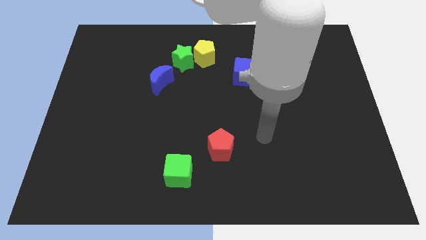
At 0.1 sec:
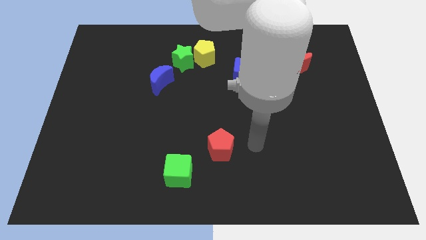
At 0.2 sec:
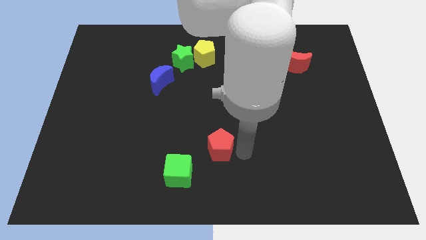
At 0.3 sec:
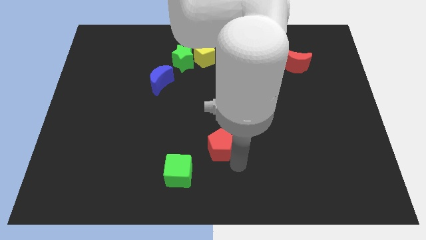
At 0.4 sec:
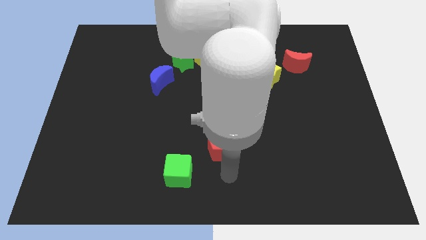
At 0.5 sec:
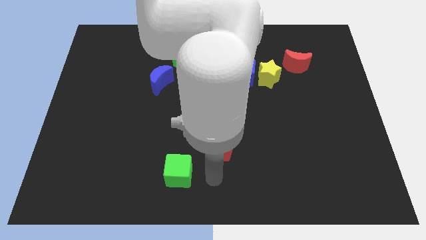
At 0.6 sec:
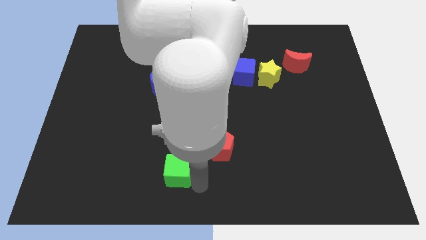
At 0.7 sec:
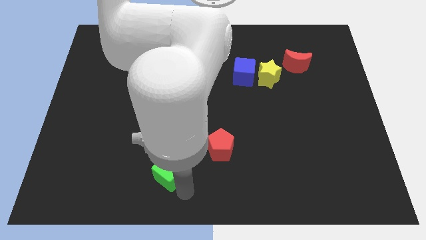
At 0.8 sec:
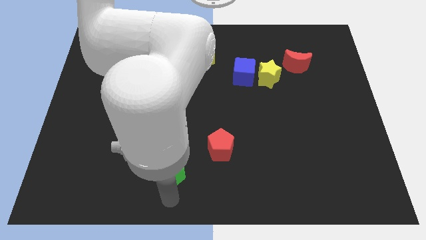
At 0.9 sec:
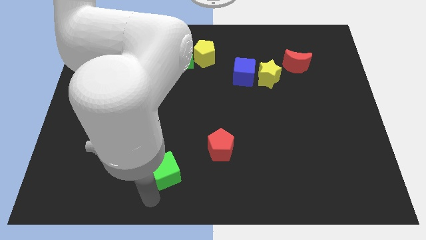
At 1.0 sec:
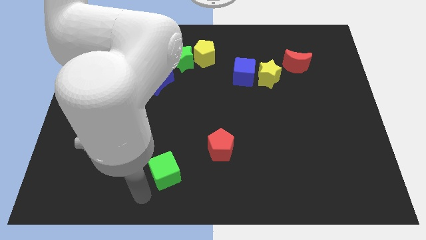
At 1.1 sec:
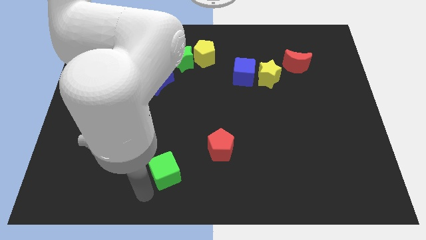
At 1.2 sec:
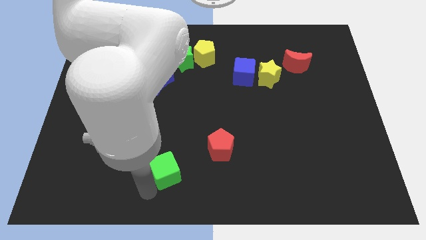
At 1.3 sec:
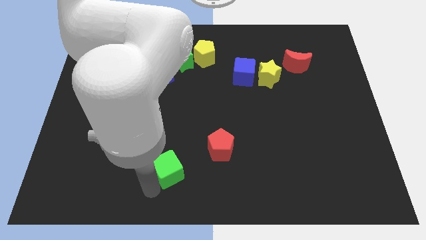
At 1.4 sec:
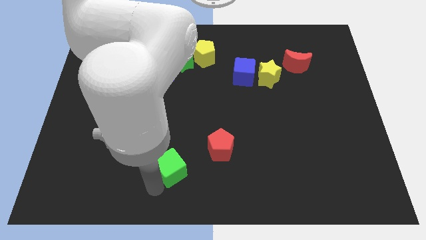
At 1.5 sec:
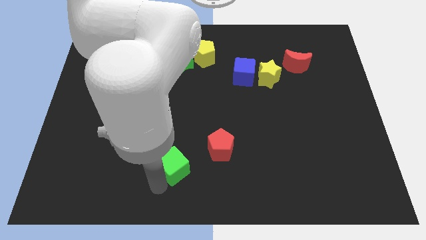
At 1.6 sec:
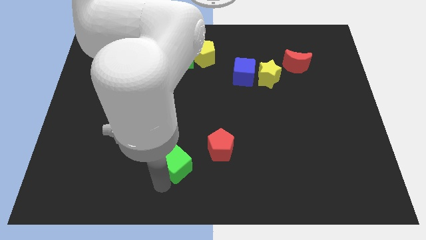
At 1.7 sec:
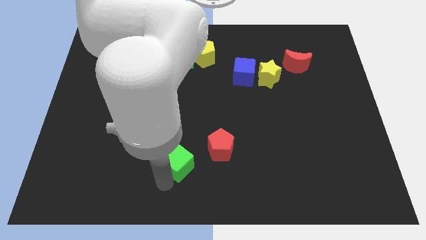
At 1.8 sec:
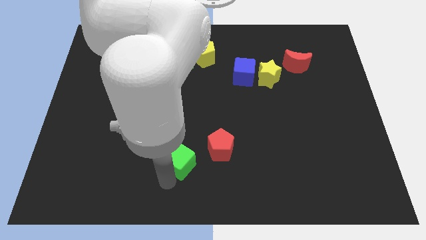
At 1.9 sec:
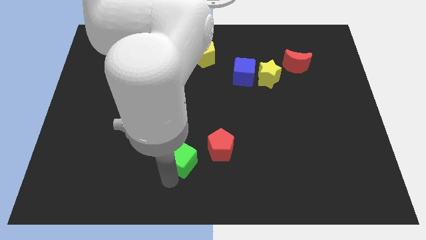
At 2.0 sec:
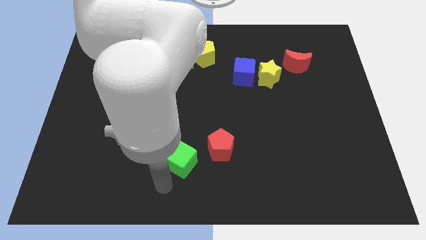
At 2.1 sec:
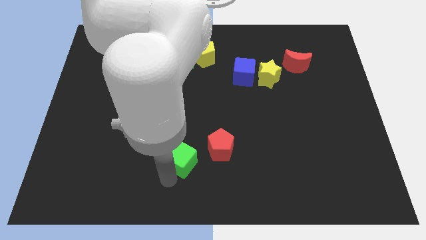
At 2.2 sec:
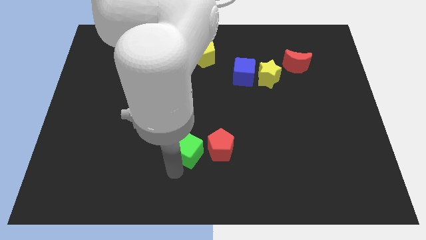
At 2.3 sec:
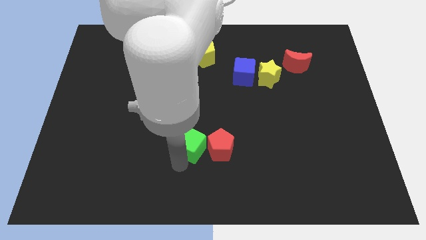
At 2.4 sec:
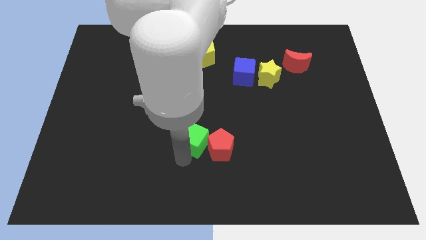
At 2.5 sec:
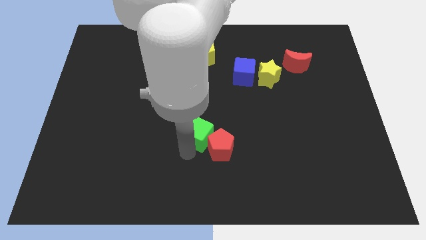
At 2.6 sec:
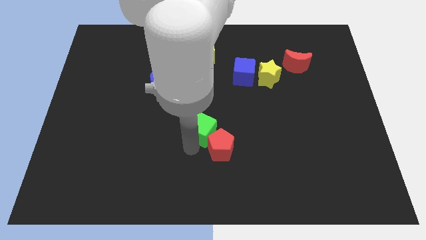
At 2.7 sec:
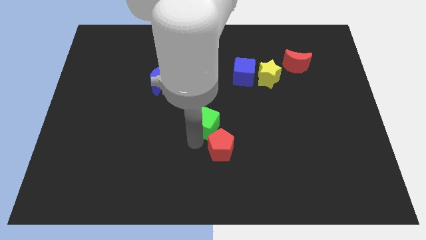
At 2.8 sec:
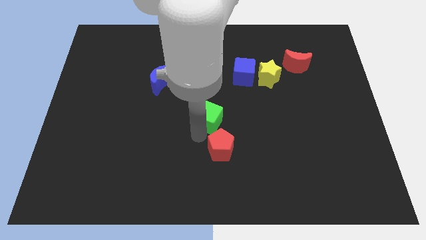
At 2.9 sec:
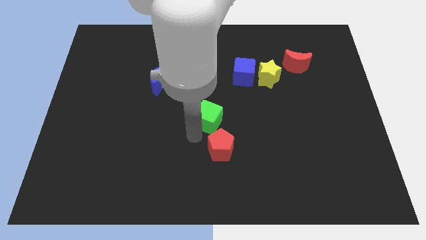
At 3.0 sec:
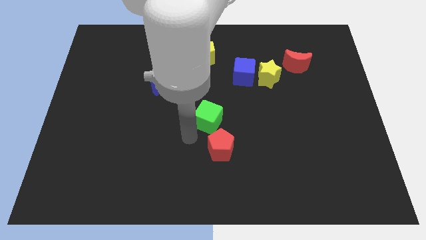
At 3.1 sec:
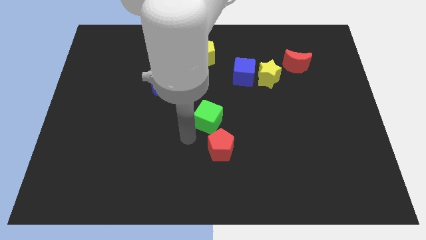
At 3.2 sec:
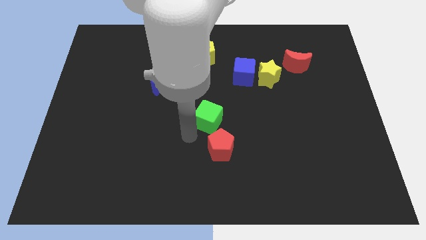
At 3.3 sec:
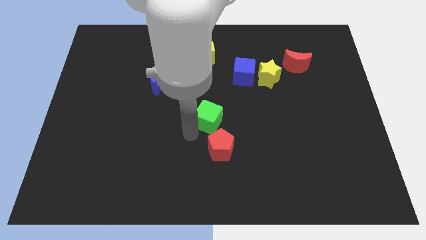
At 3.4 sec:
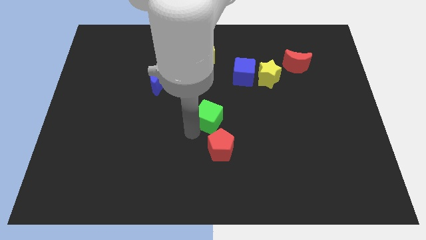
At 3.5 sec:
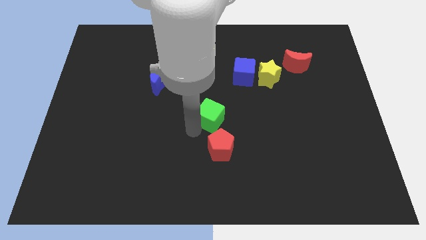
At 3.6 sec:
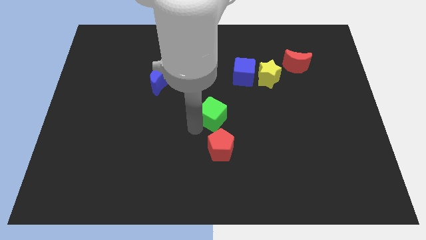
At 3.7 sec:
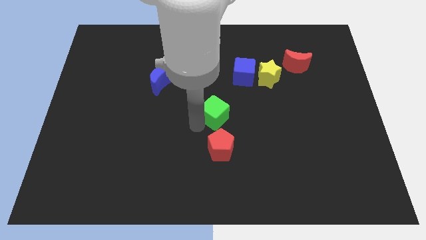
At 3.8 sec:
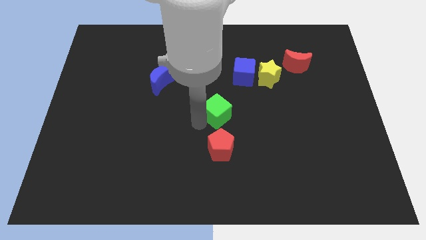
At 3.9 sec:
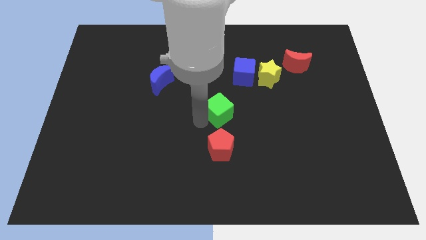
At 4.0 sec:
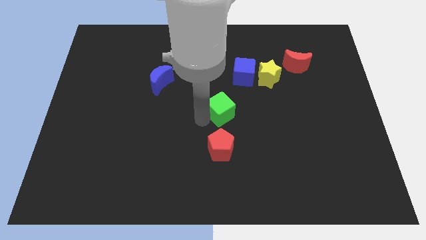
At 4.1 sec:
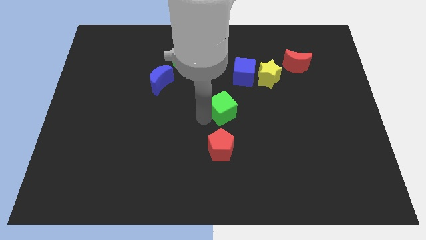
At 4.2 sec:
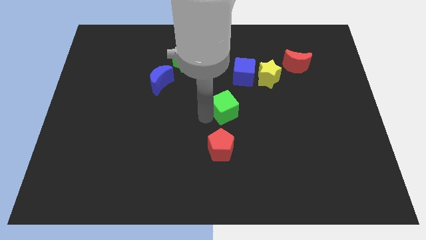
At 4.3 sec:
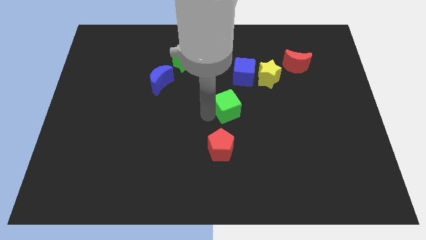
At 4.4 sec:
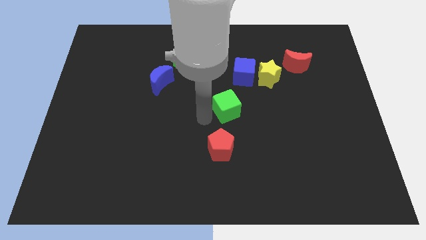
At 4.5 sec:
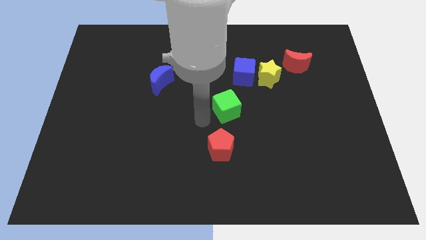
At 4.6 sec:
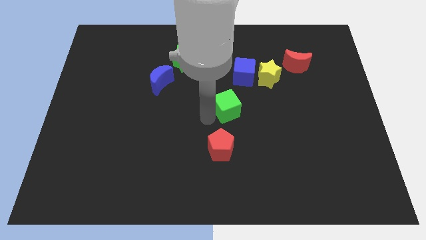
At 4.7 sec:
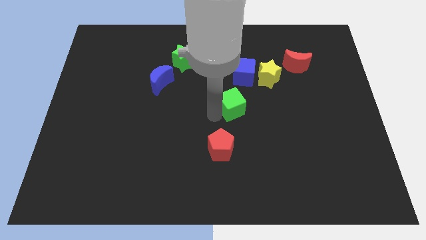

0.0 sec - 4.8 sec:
push the green cube up and to the right diagonally

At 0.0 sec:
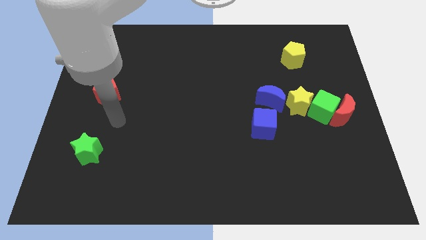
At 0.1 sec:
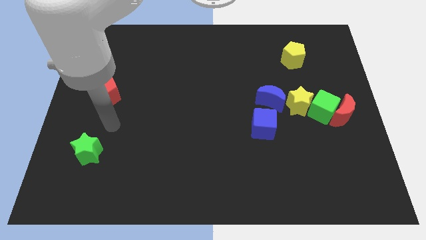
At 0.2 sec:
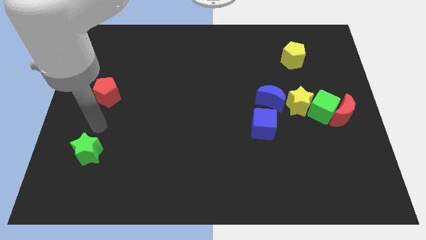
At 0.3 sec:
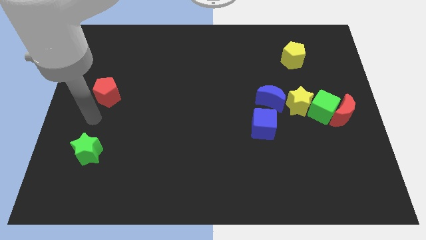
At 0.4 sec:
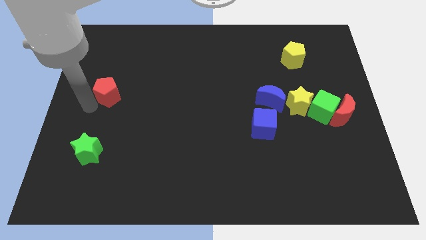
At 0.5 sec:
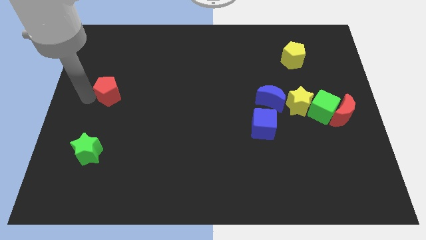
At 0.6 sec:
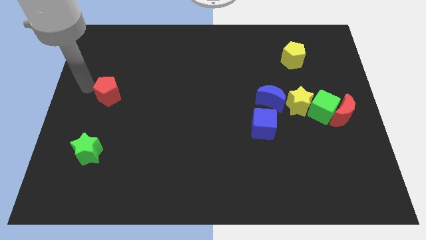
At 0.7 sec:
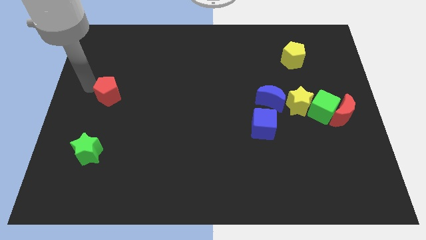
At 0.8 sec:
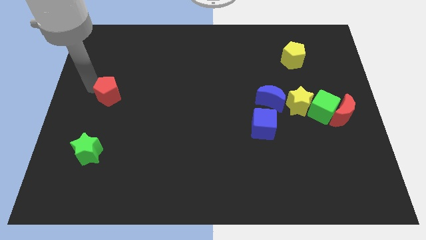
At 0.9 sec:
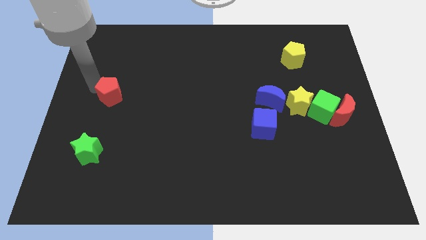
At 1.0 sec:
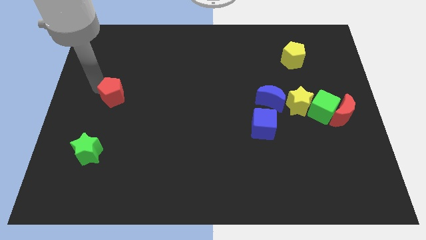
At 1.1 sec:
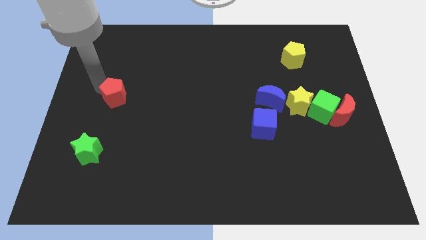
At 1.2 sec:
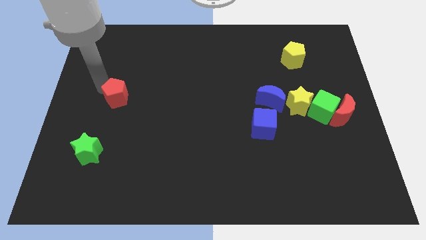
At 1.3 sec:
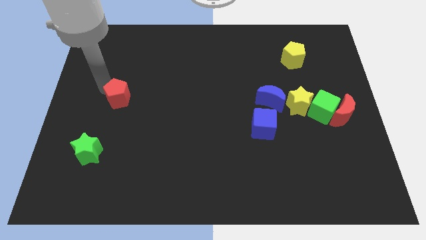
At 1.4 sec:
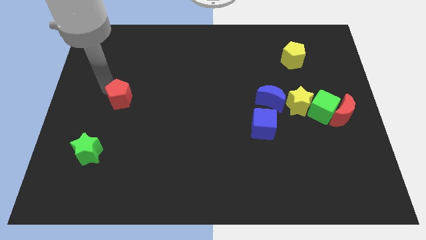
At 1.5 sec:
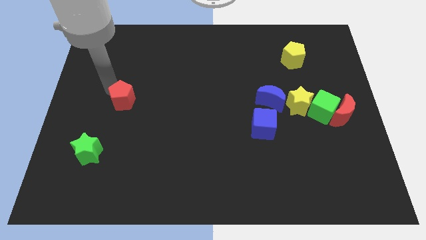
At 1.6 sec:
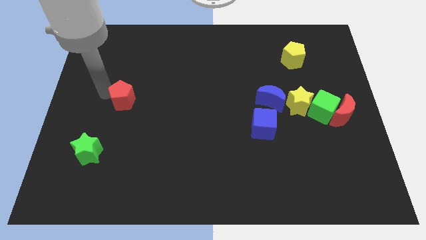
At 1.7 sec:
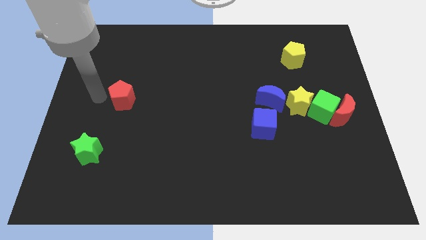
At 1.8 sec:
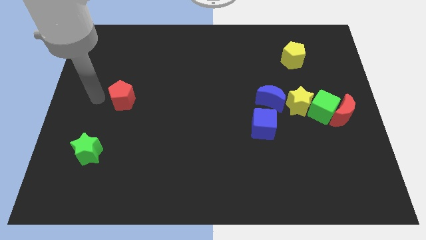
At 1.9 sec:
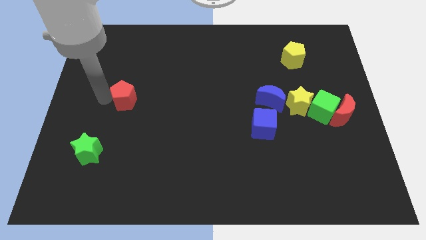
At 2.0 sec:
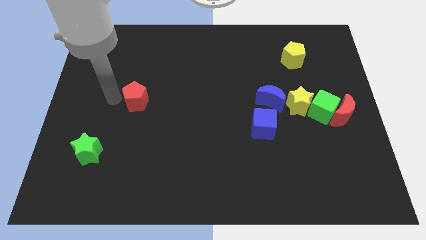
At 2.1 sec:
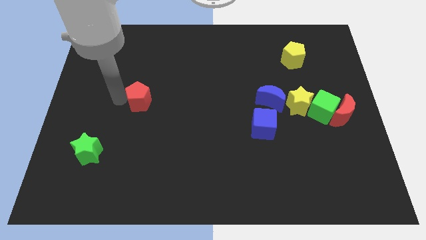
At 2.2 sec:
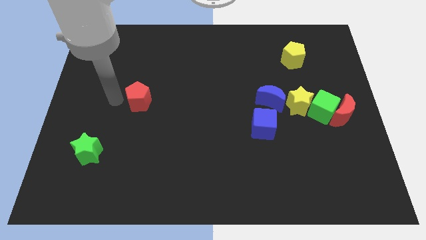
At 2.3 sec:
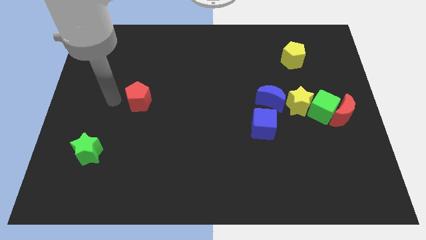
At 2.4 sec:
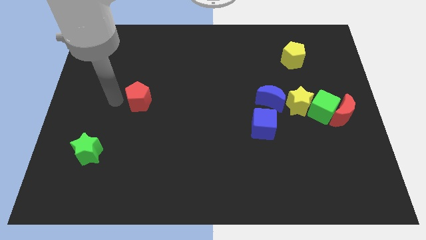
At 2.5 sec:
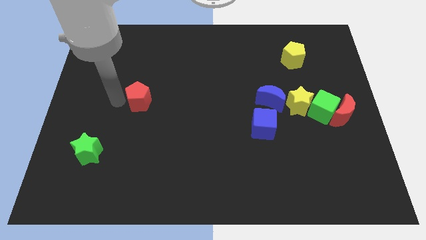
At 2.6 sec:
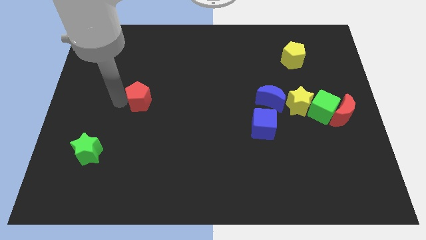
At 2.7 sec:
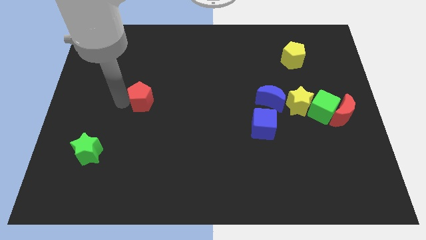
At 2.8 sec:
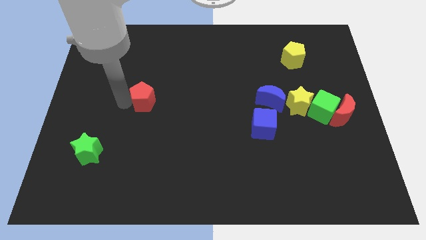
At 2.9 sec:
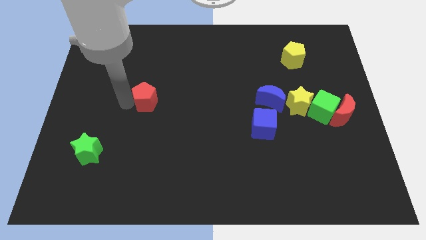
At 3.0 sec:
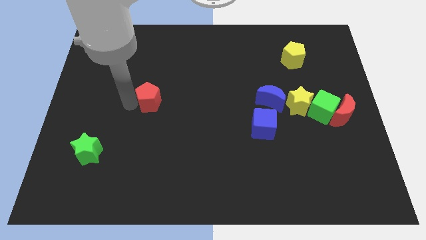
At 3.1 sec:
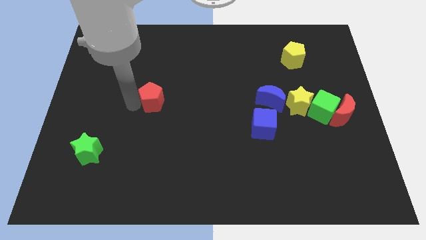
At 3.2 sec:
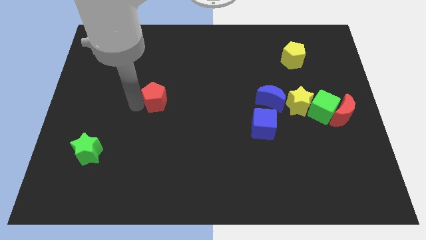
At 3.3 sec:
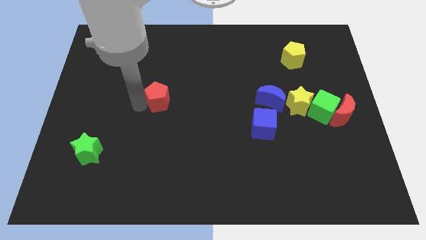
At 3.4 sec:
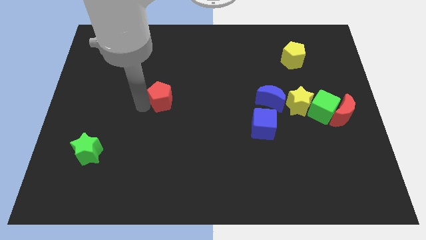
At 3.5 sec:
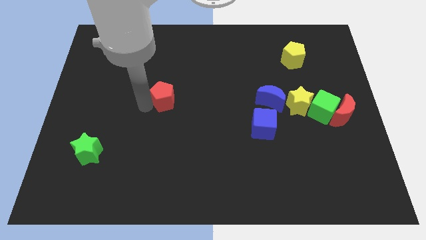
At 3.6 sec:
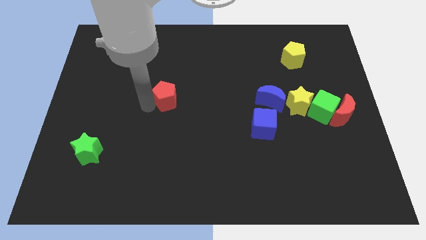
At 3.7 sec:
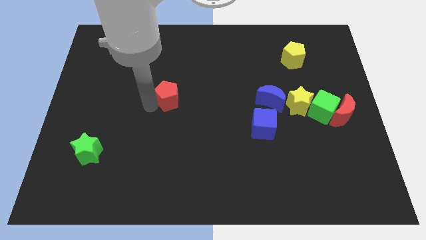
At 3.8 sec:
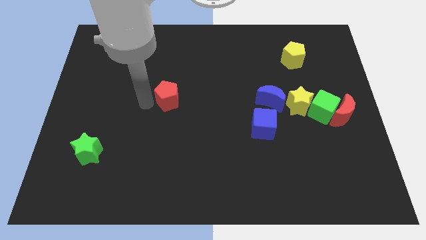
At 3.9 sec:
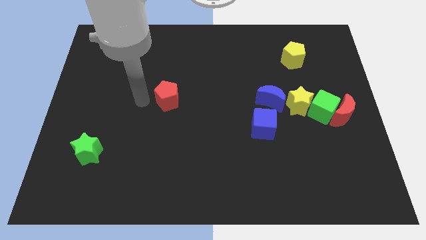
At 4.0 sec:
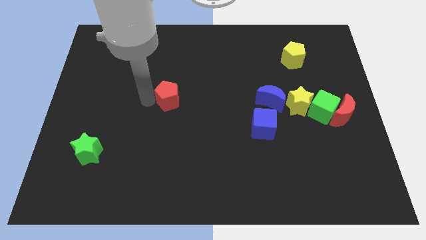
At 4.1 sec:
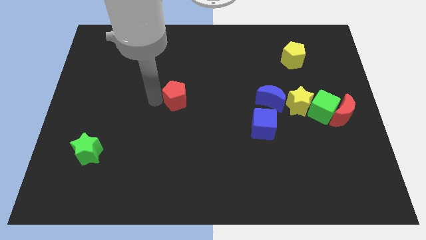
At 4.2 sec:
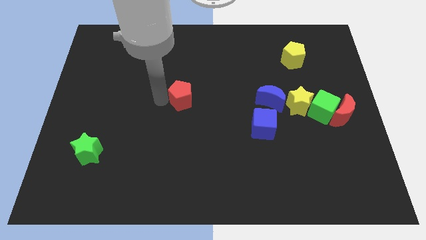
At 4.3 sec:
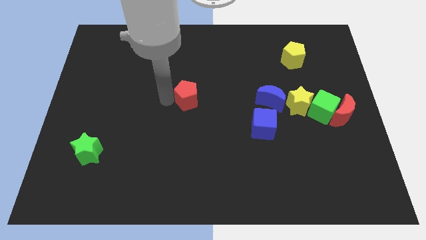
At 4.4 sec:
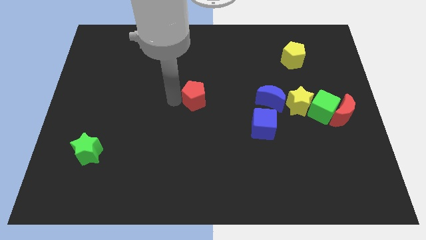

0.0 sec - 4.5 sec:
move the red pentagon to the right
